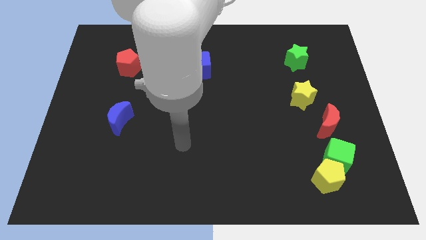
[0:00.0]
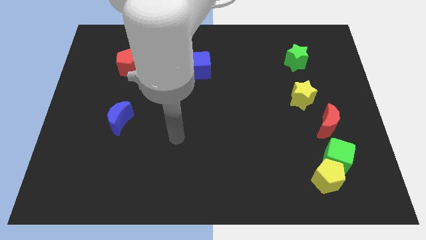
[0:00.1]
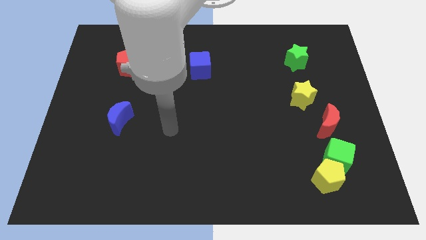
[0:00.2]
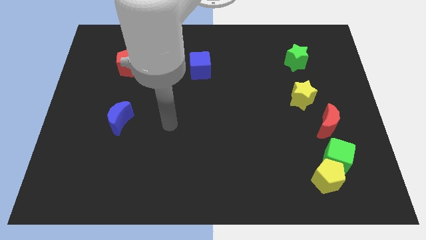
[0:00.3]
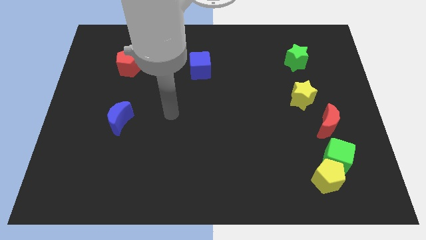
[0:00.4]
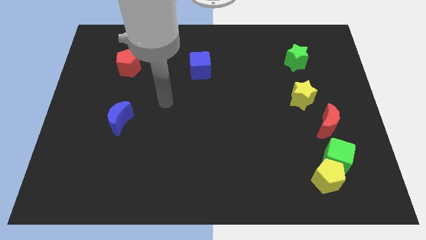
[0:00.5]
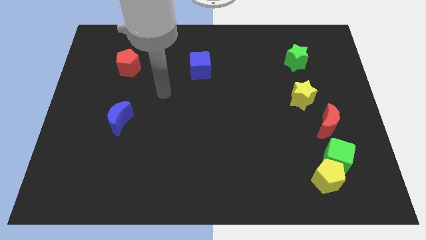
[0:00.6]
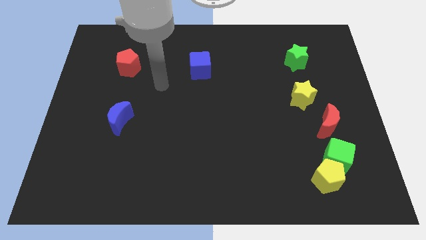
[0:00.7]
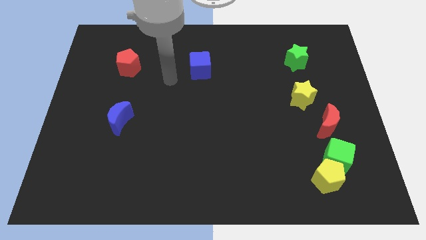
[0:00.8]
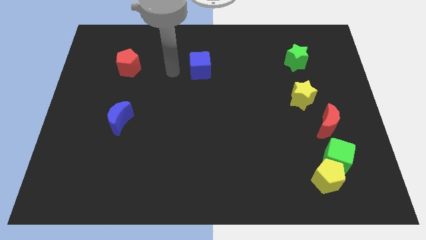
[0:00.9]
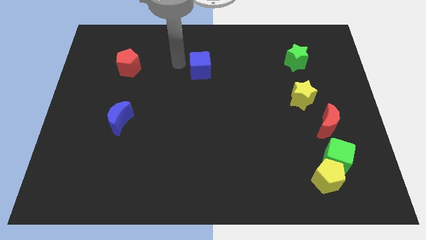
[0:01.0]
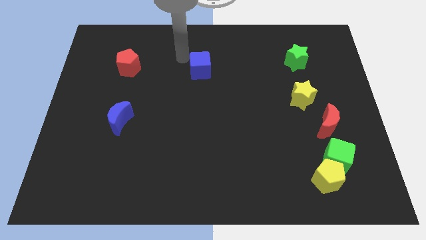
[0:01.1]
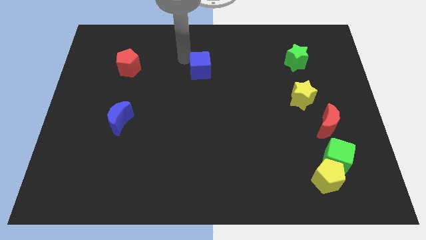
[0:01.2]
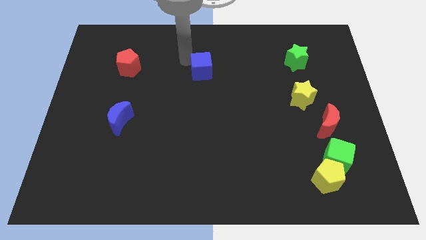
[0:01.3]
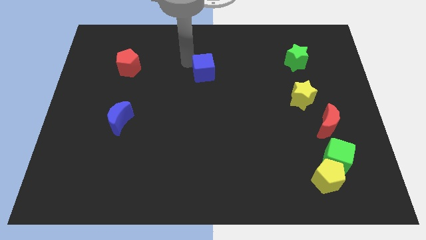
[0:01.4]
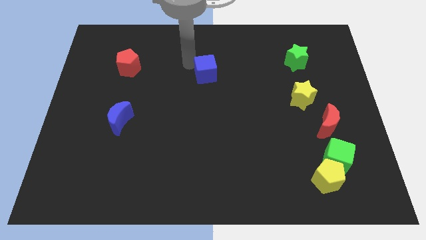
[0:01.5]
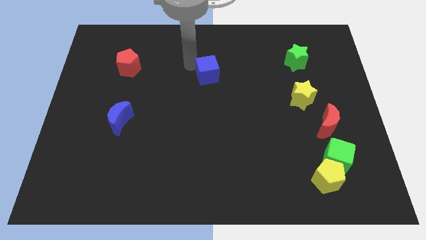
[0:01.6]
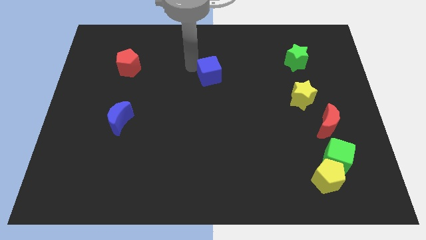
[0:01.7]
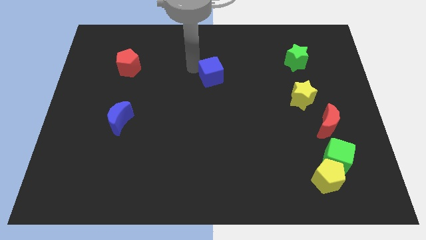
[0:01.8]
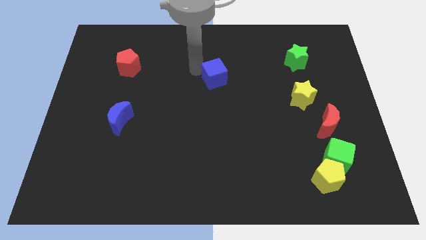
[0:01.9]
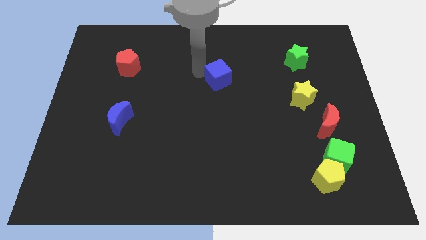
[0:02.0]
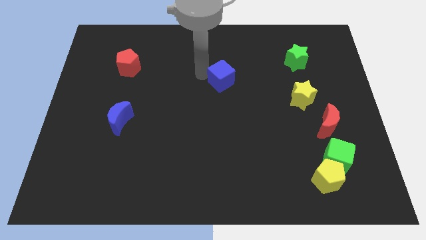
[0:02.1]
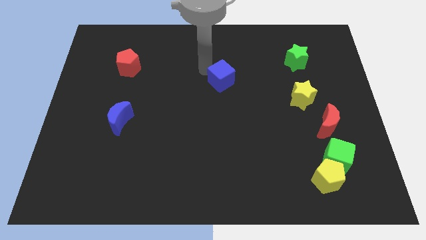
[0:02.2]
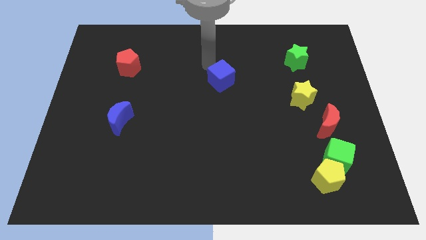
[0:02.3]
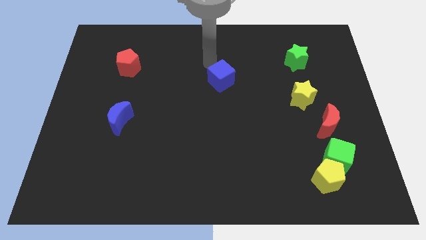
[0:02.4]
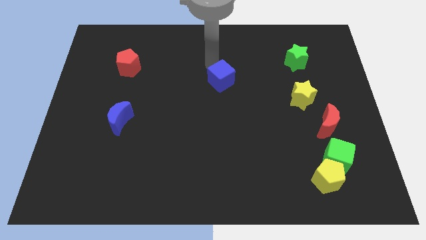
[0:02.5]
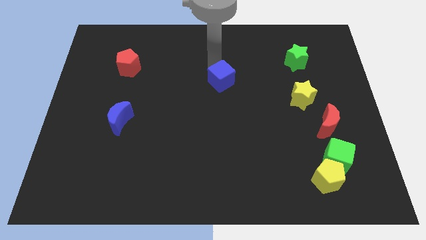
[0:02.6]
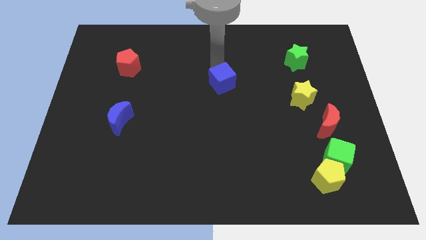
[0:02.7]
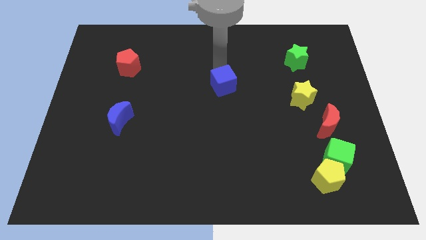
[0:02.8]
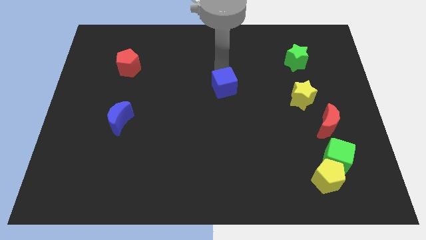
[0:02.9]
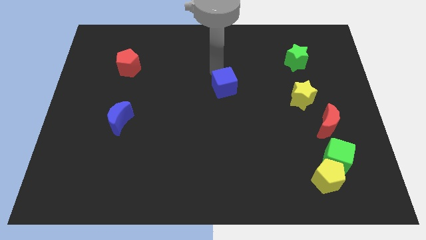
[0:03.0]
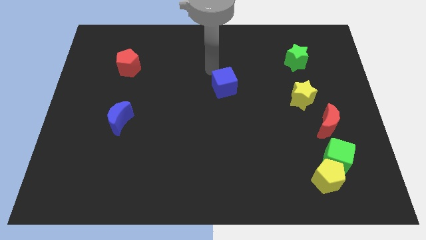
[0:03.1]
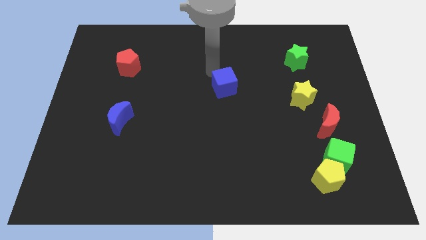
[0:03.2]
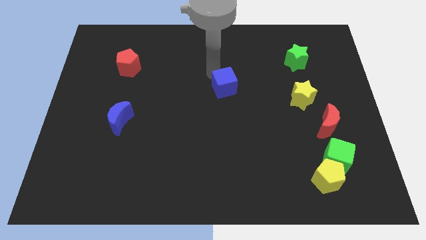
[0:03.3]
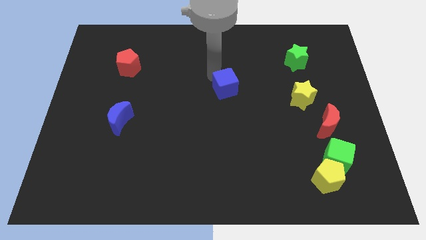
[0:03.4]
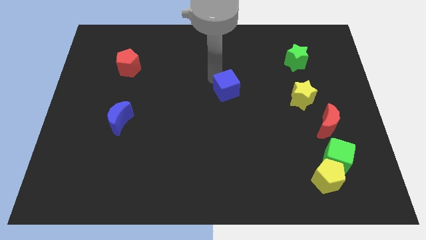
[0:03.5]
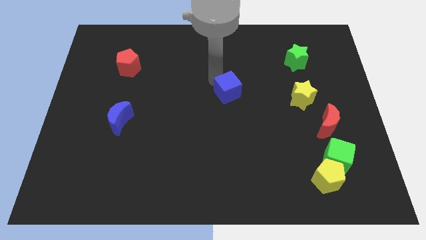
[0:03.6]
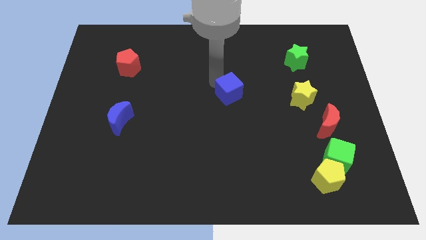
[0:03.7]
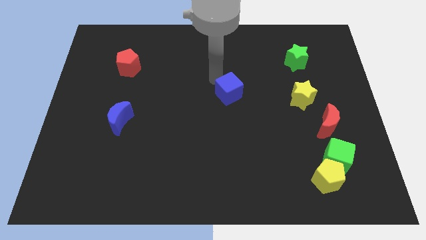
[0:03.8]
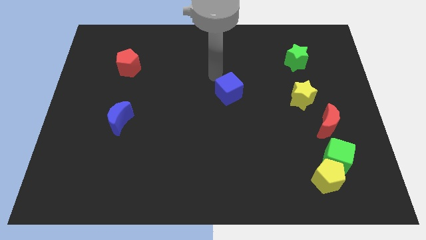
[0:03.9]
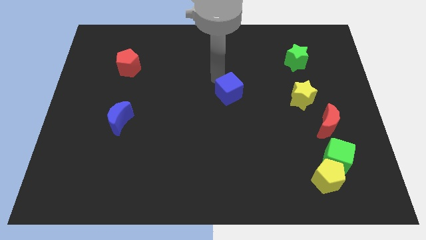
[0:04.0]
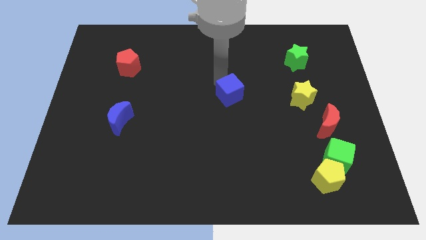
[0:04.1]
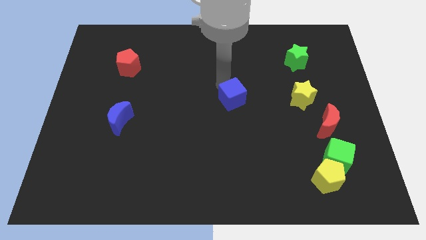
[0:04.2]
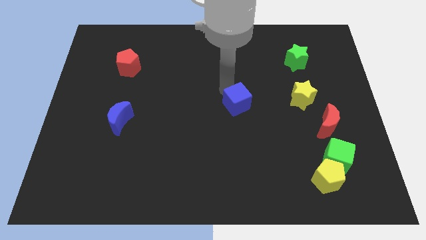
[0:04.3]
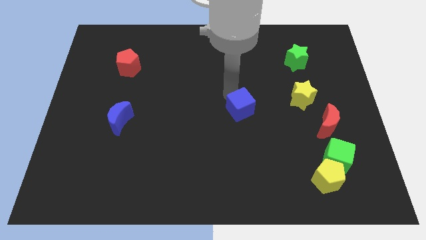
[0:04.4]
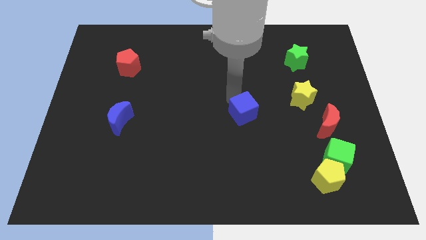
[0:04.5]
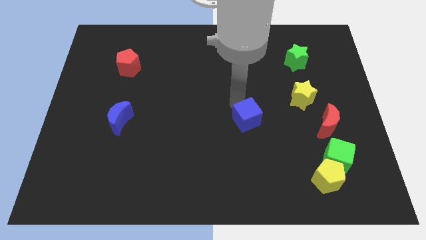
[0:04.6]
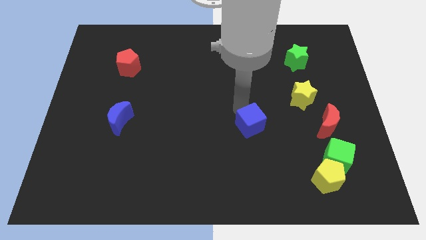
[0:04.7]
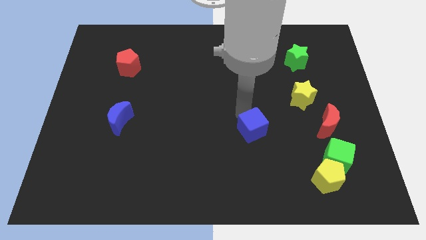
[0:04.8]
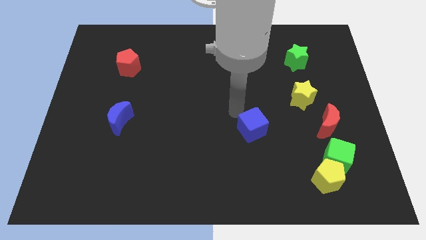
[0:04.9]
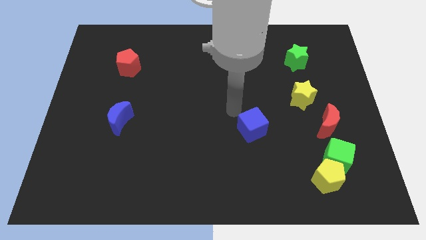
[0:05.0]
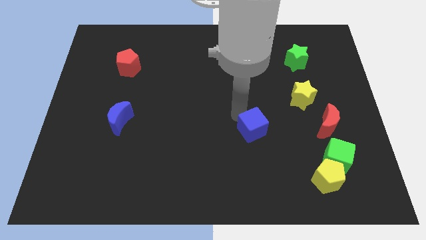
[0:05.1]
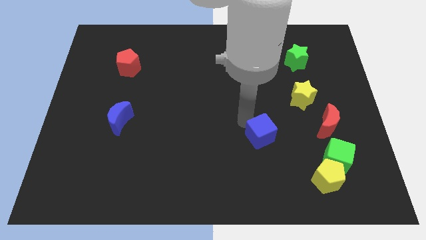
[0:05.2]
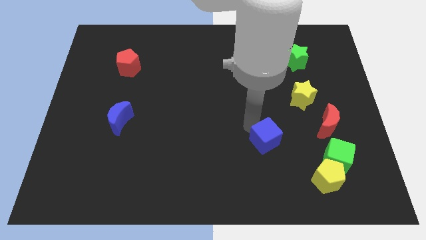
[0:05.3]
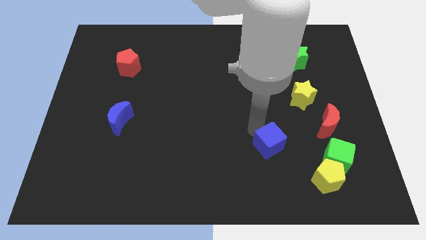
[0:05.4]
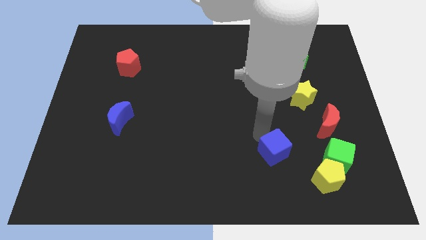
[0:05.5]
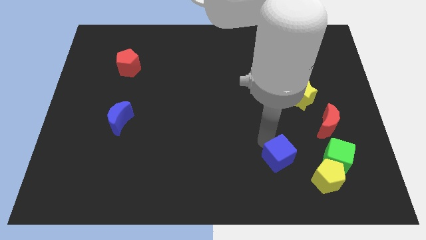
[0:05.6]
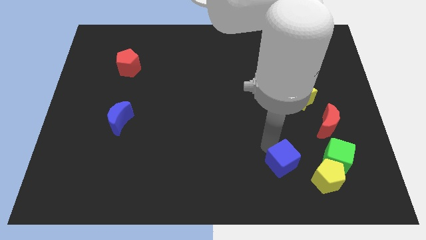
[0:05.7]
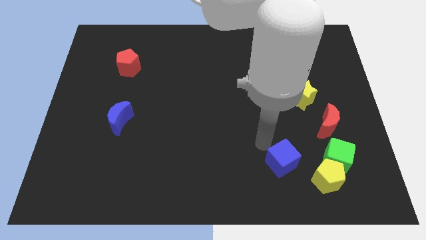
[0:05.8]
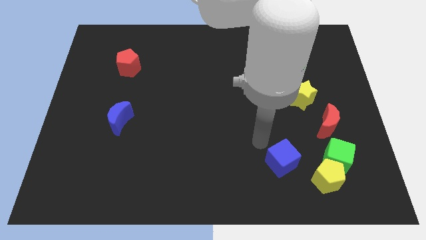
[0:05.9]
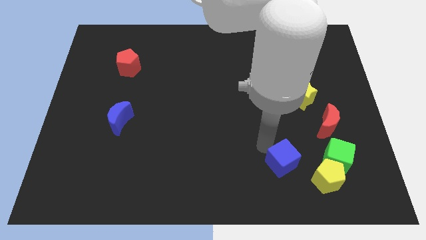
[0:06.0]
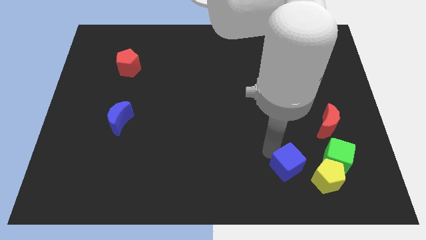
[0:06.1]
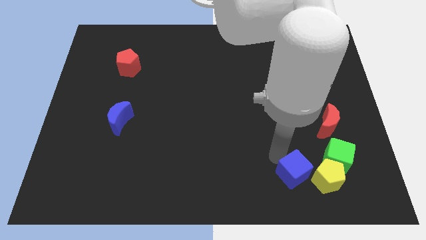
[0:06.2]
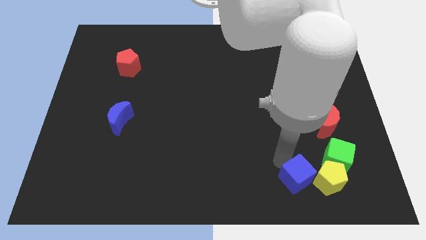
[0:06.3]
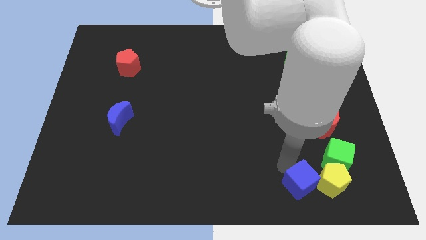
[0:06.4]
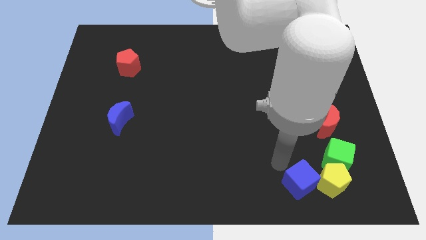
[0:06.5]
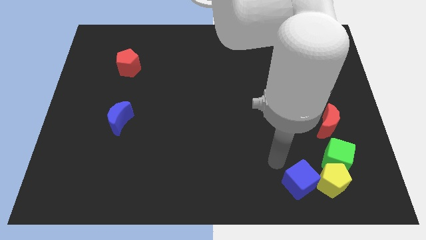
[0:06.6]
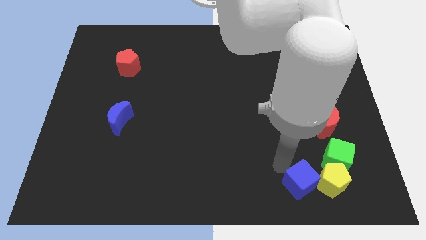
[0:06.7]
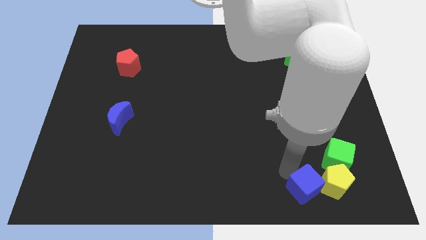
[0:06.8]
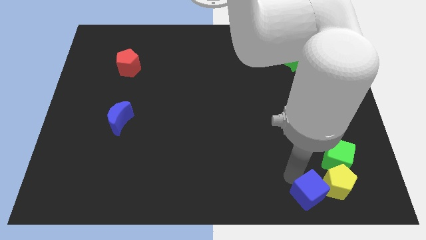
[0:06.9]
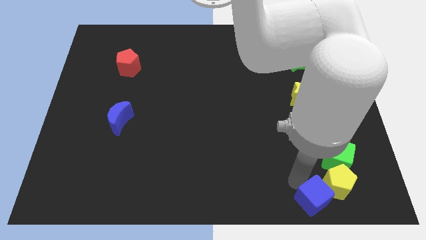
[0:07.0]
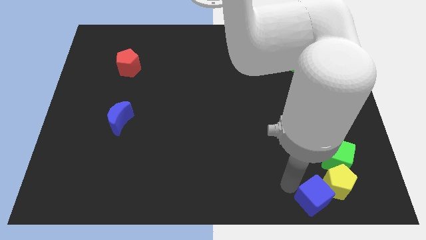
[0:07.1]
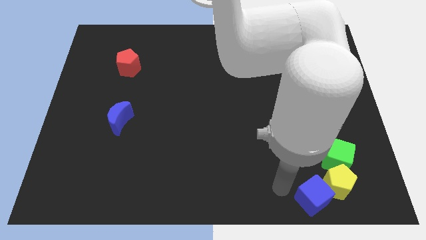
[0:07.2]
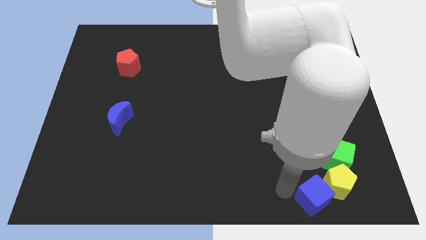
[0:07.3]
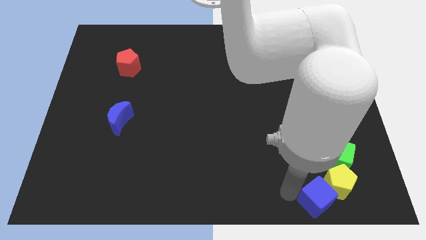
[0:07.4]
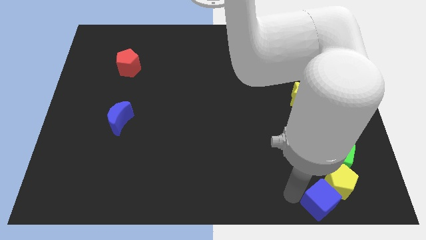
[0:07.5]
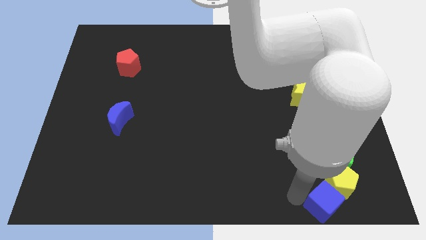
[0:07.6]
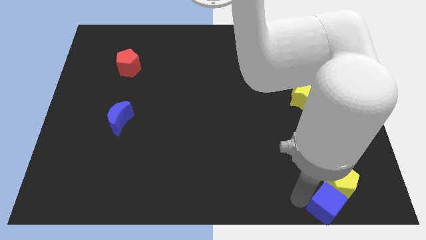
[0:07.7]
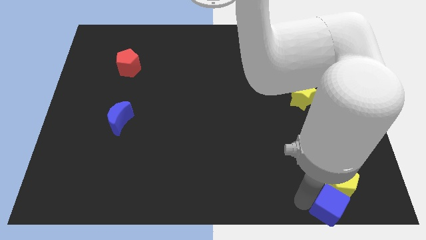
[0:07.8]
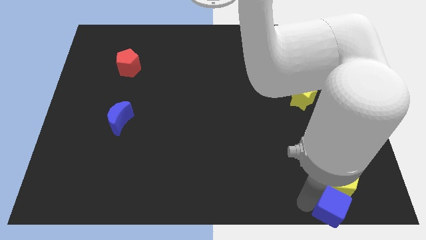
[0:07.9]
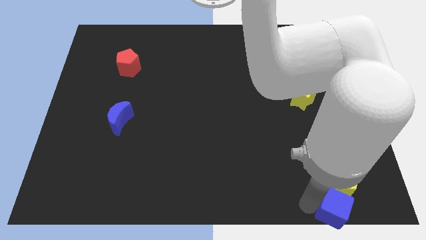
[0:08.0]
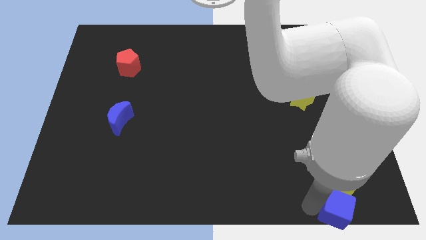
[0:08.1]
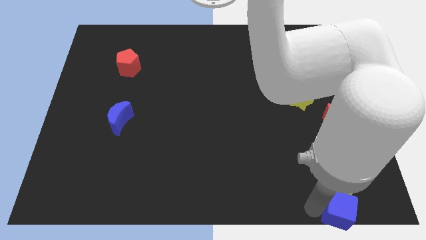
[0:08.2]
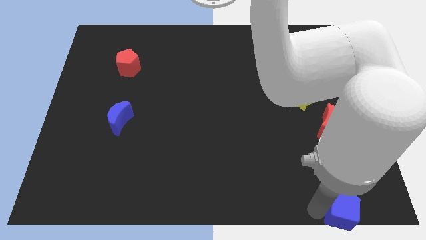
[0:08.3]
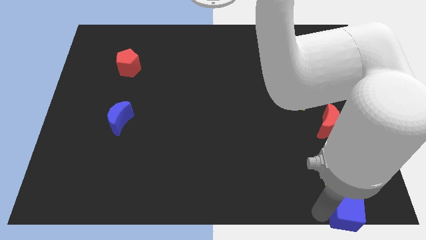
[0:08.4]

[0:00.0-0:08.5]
push the blue cube to the bottom right
